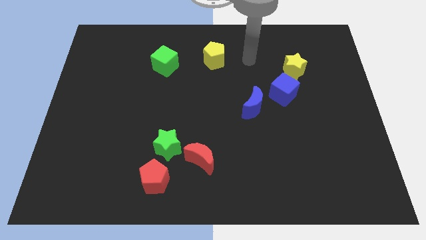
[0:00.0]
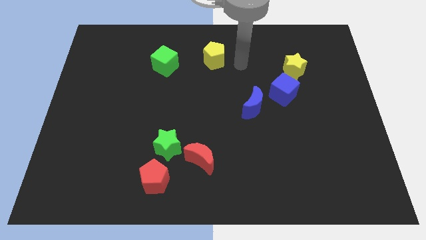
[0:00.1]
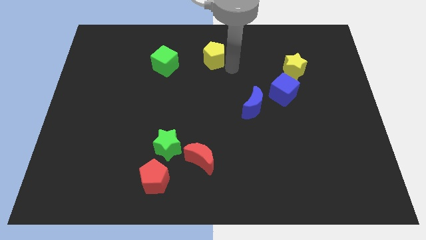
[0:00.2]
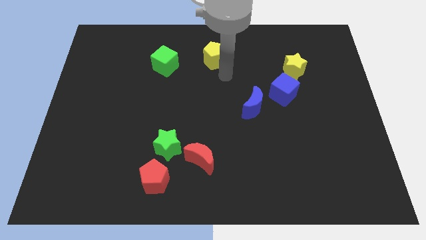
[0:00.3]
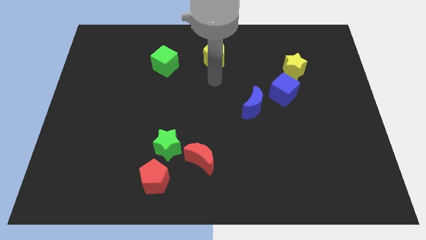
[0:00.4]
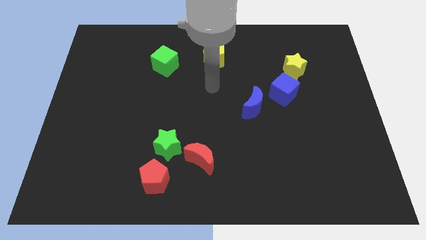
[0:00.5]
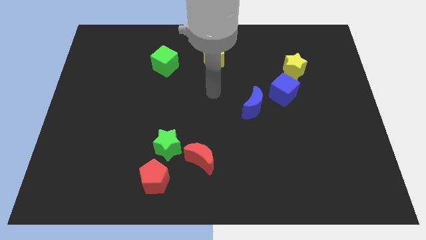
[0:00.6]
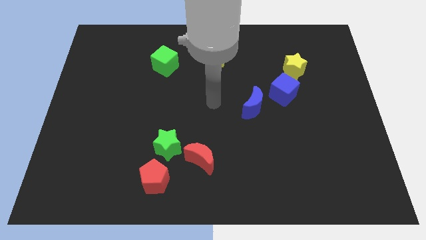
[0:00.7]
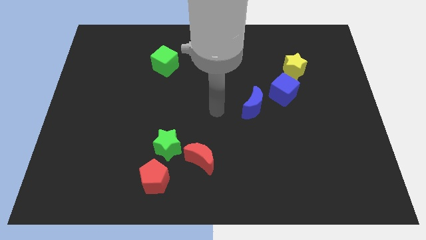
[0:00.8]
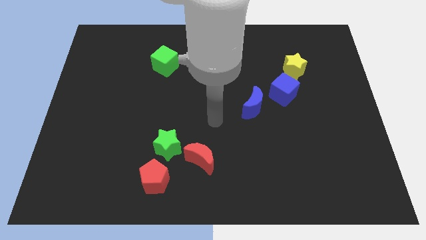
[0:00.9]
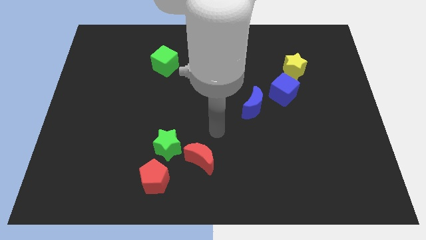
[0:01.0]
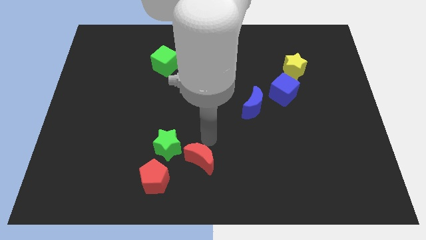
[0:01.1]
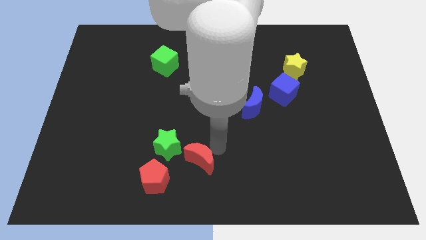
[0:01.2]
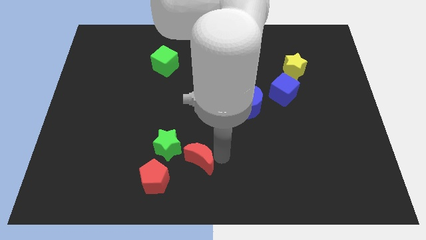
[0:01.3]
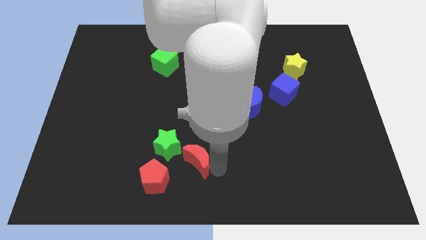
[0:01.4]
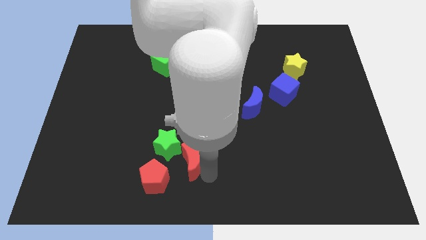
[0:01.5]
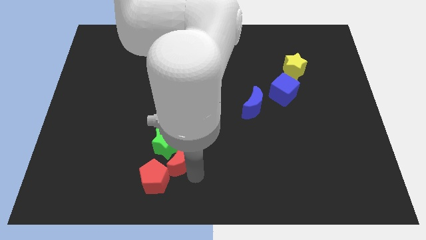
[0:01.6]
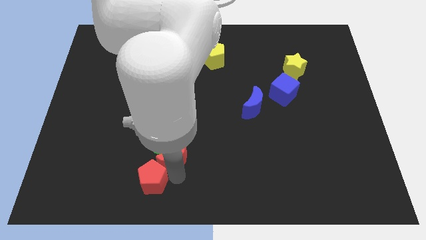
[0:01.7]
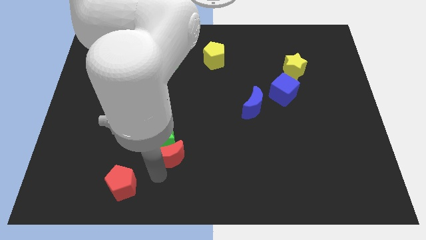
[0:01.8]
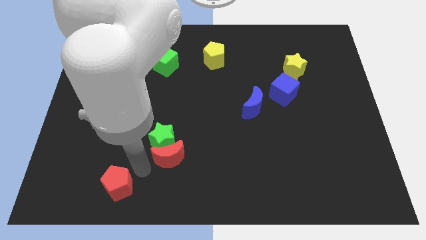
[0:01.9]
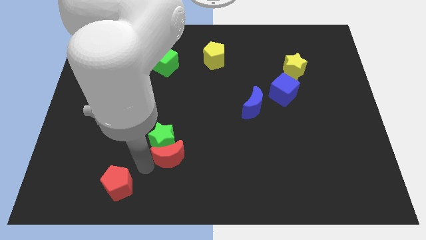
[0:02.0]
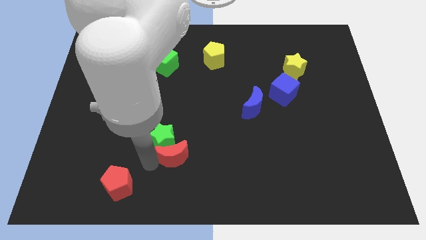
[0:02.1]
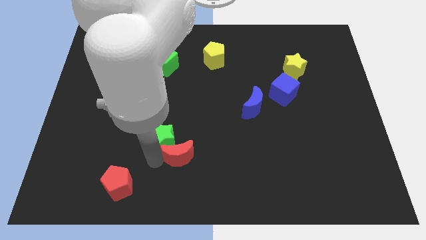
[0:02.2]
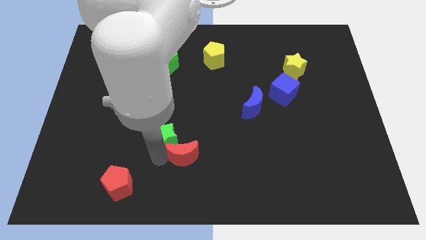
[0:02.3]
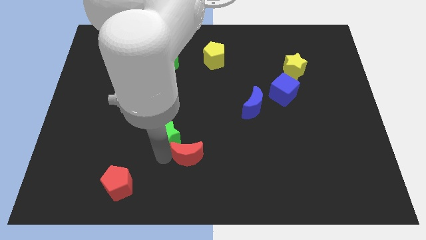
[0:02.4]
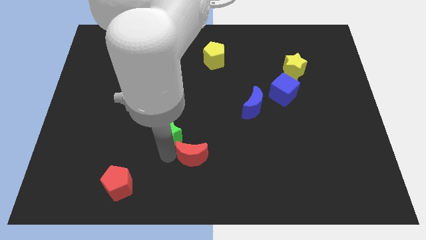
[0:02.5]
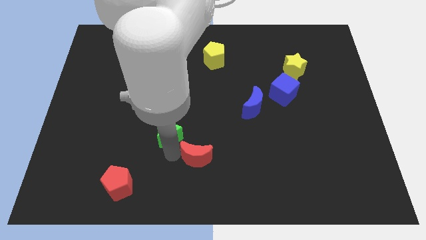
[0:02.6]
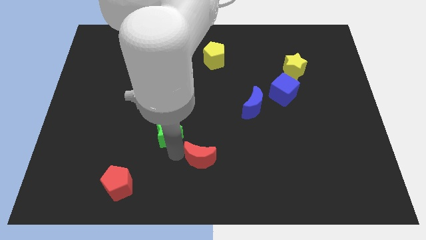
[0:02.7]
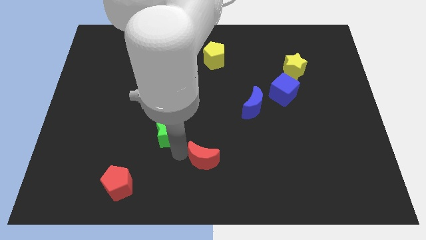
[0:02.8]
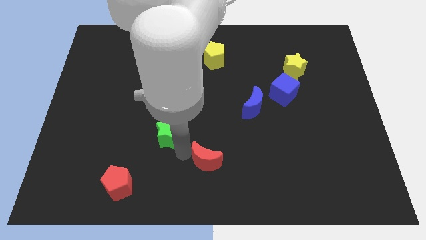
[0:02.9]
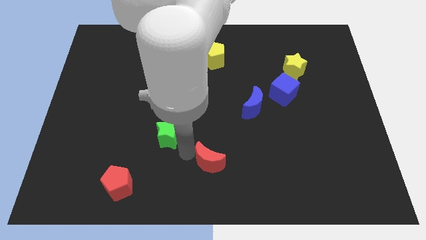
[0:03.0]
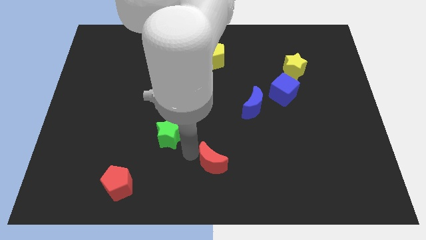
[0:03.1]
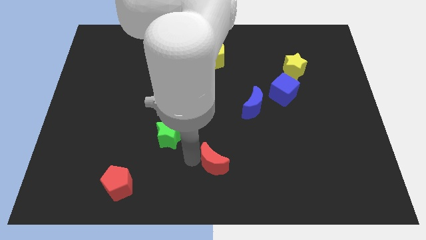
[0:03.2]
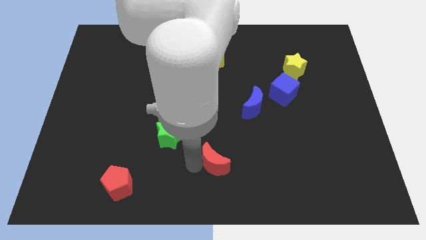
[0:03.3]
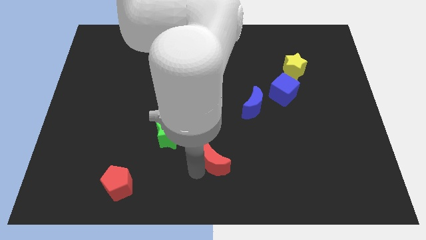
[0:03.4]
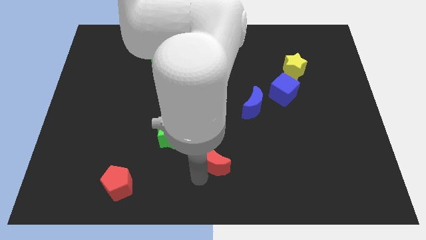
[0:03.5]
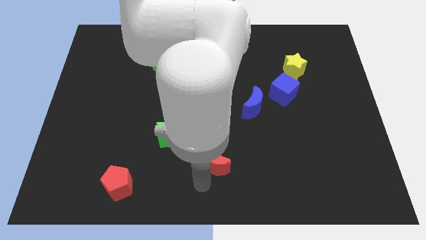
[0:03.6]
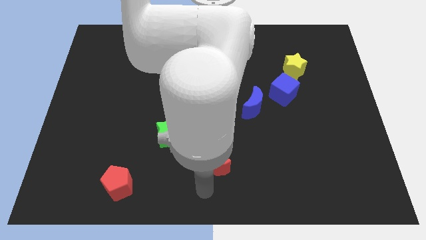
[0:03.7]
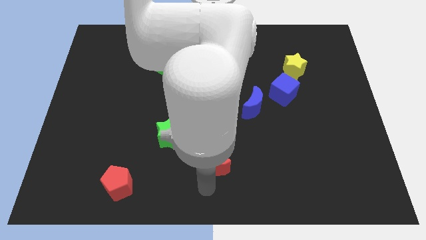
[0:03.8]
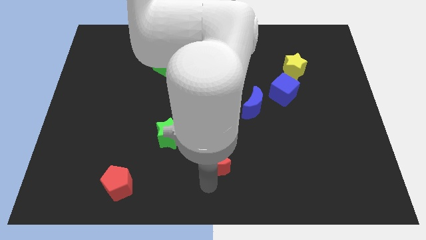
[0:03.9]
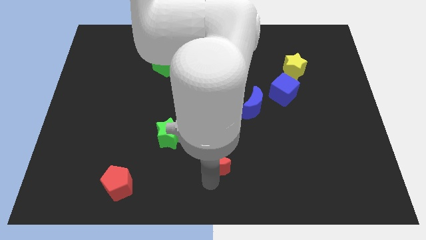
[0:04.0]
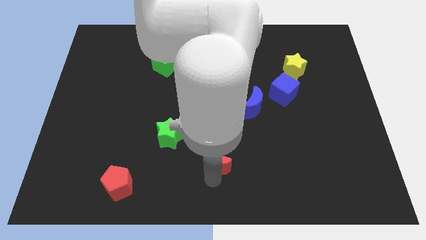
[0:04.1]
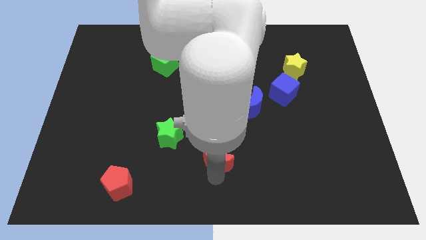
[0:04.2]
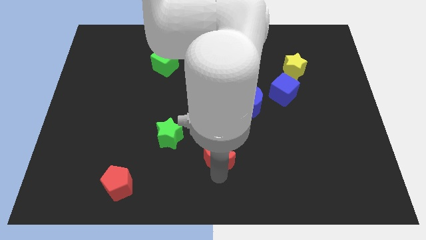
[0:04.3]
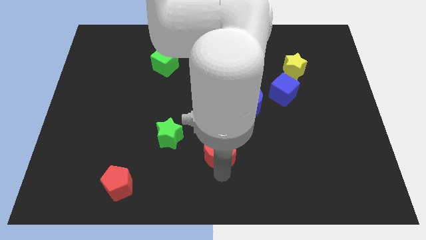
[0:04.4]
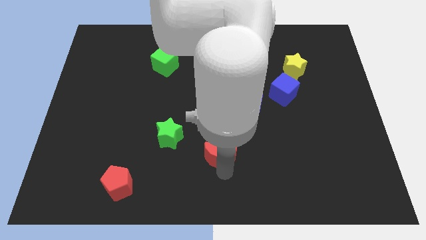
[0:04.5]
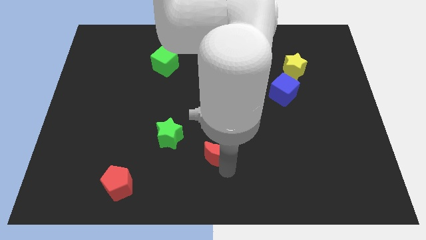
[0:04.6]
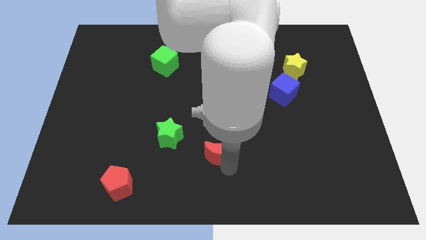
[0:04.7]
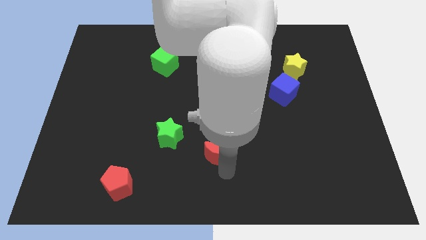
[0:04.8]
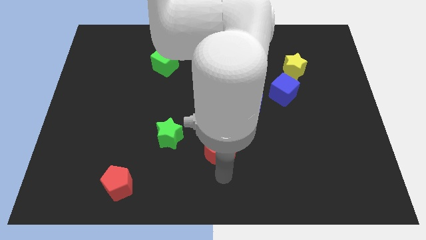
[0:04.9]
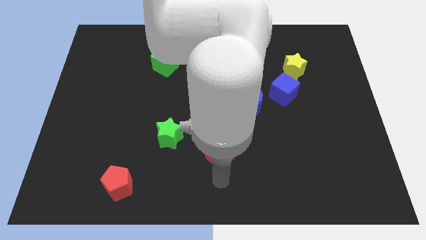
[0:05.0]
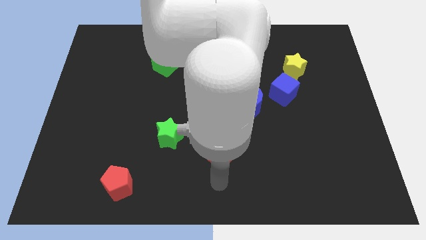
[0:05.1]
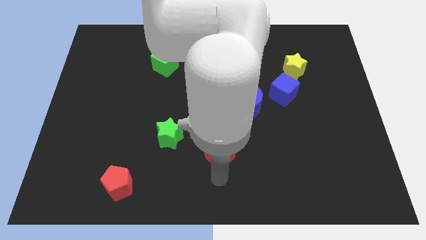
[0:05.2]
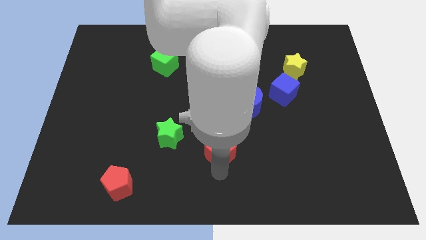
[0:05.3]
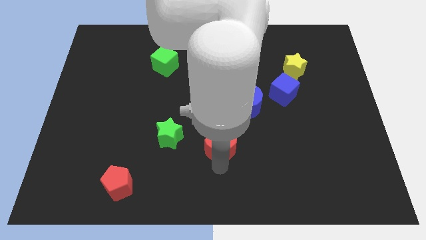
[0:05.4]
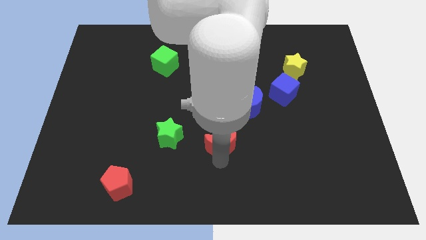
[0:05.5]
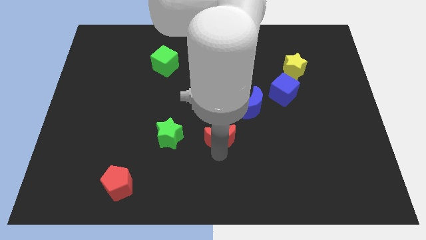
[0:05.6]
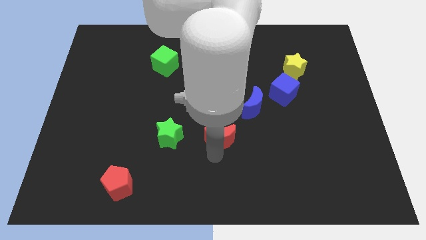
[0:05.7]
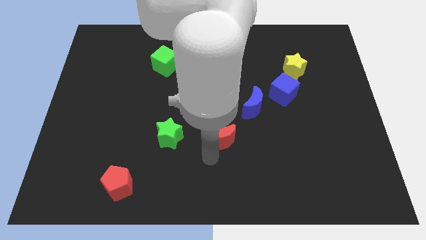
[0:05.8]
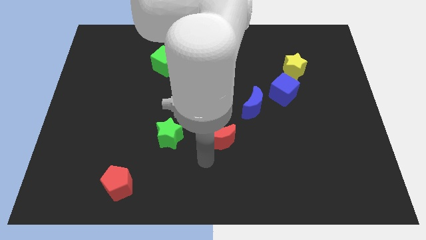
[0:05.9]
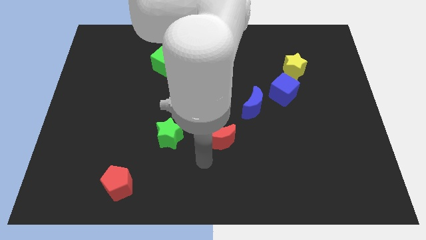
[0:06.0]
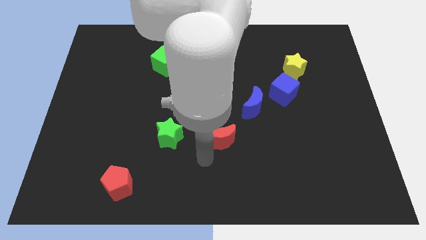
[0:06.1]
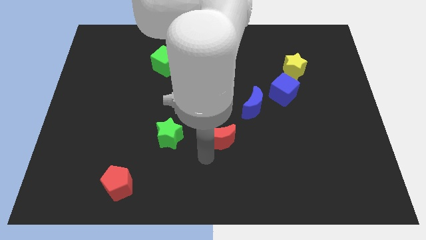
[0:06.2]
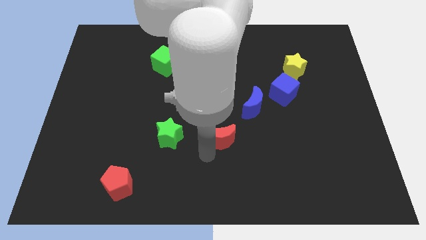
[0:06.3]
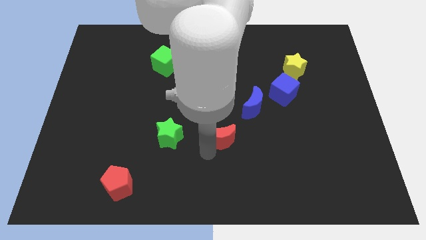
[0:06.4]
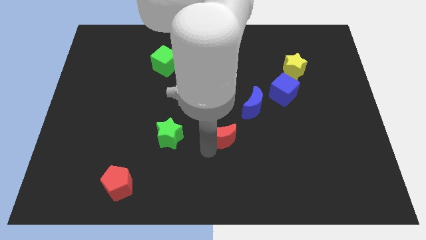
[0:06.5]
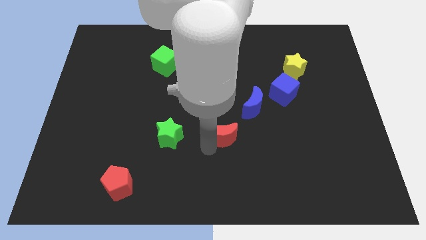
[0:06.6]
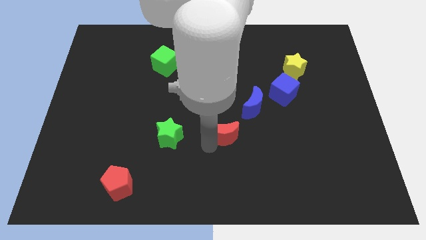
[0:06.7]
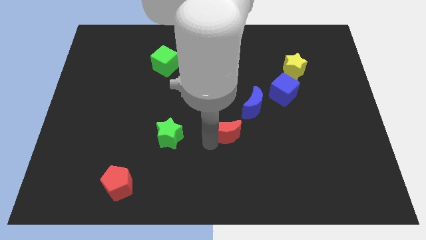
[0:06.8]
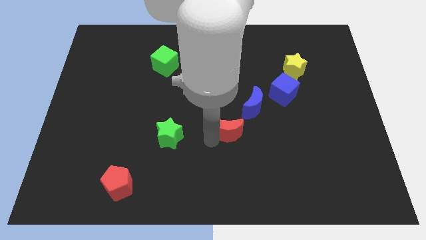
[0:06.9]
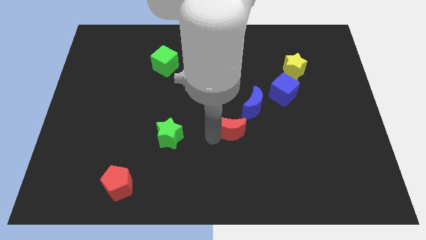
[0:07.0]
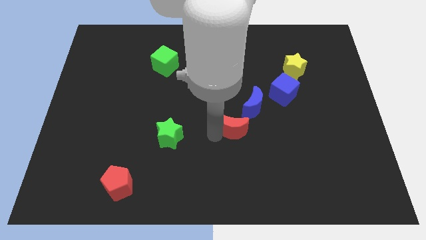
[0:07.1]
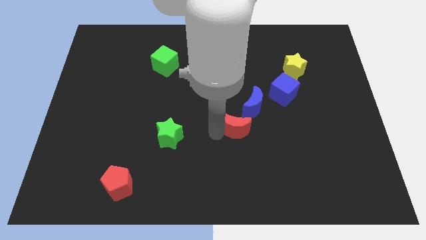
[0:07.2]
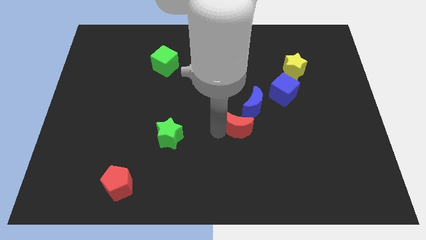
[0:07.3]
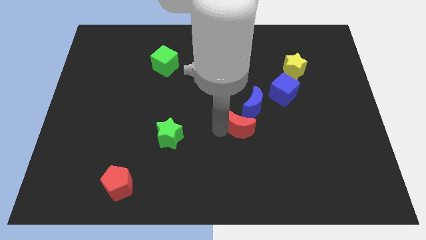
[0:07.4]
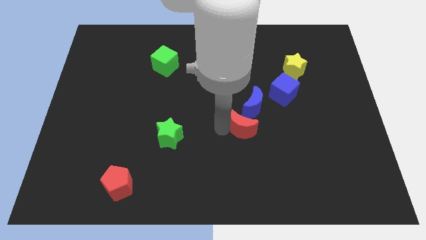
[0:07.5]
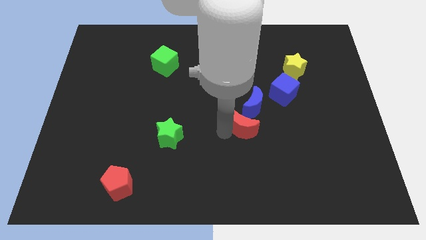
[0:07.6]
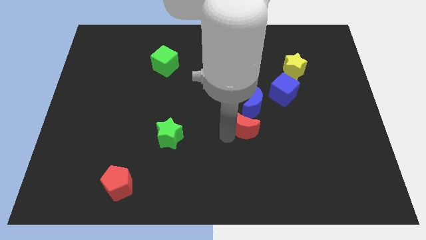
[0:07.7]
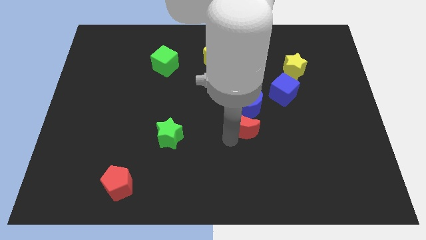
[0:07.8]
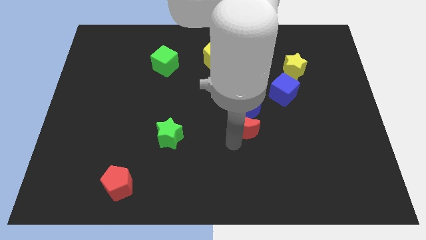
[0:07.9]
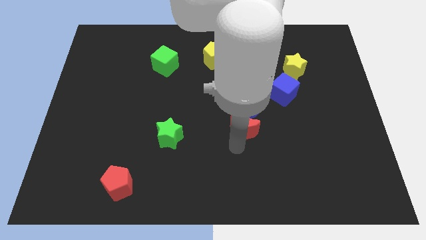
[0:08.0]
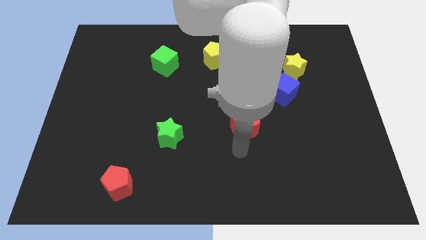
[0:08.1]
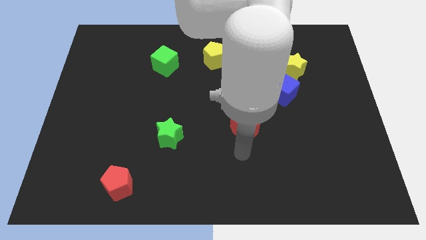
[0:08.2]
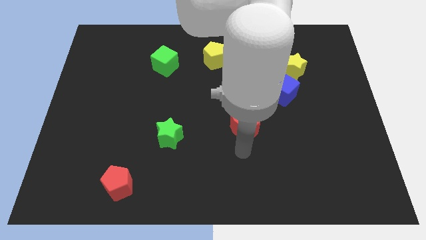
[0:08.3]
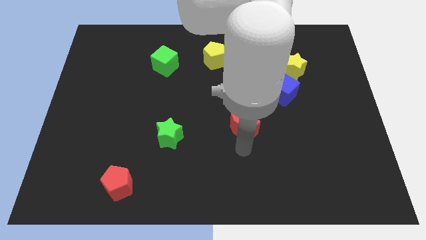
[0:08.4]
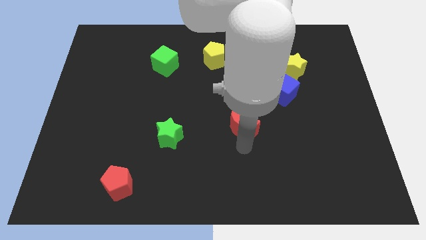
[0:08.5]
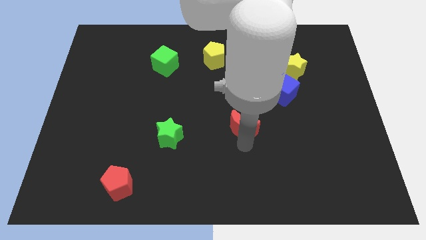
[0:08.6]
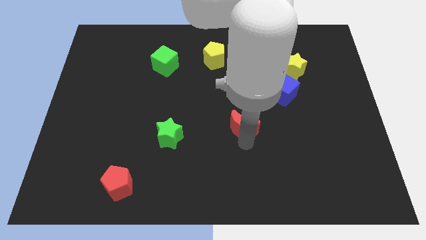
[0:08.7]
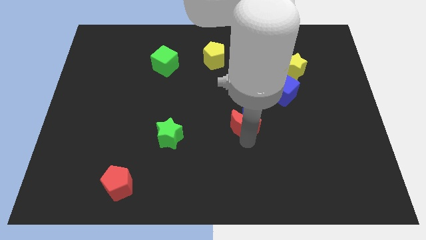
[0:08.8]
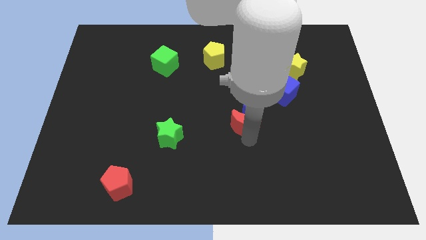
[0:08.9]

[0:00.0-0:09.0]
slide the red moon to the blue moon
